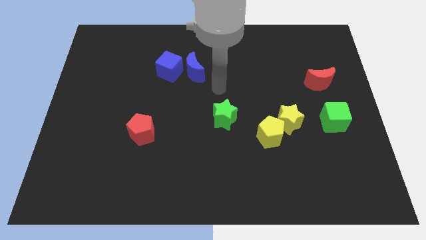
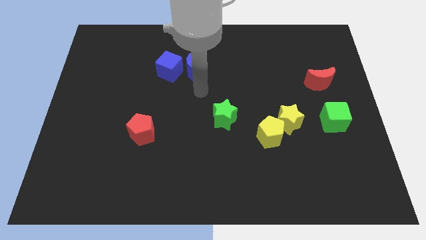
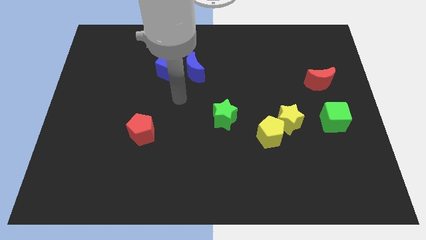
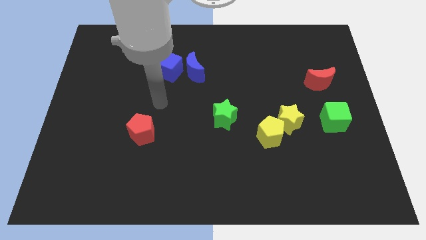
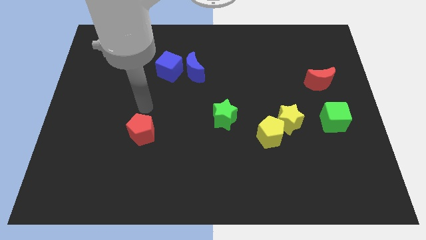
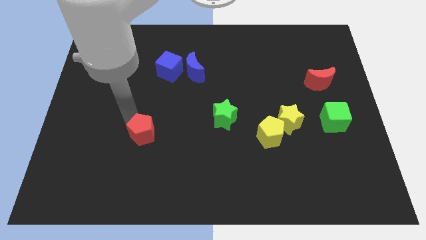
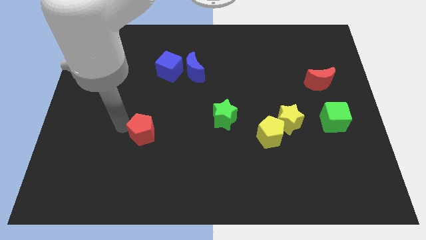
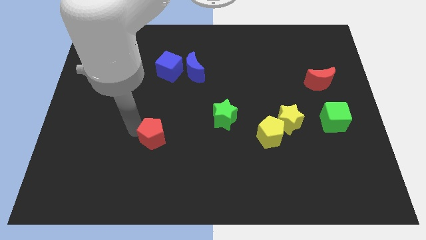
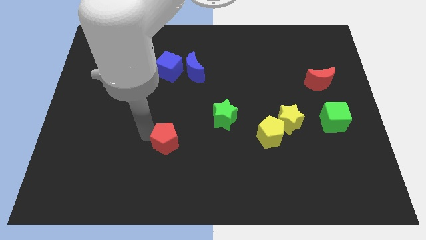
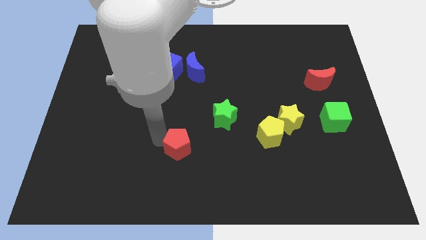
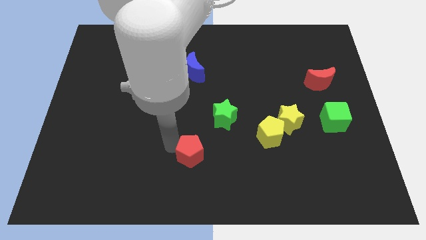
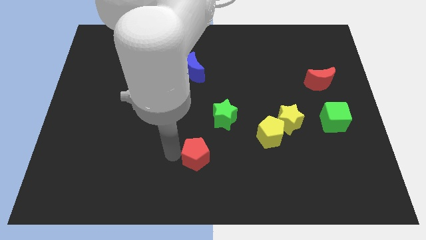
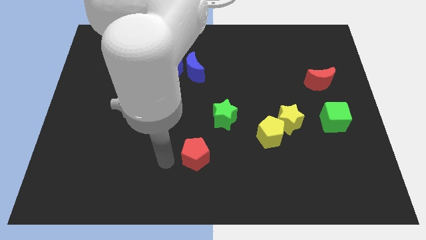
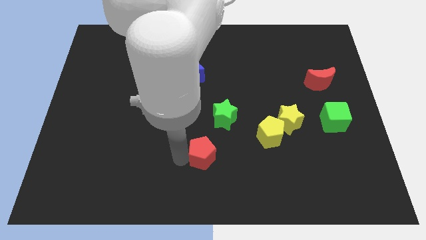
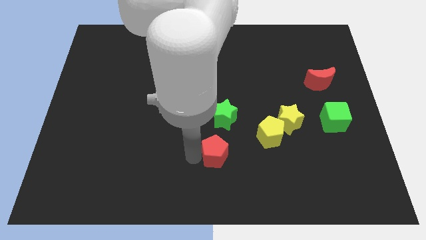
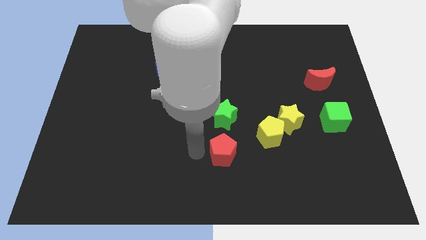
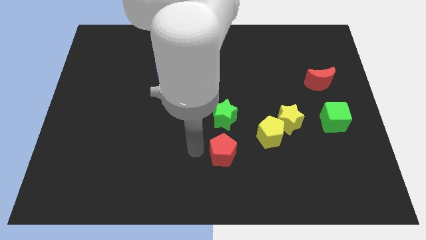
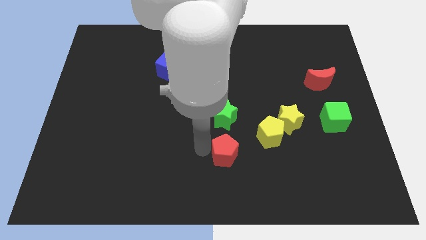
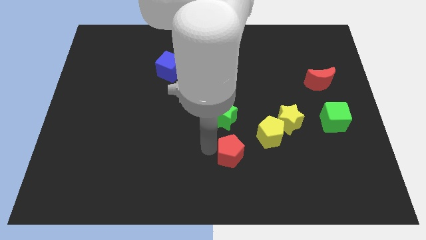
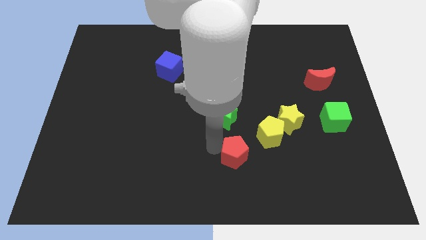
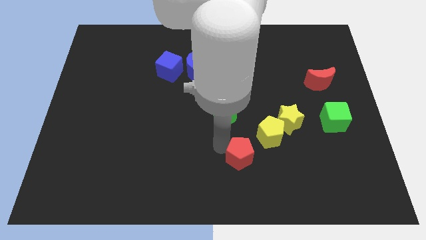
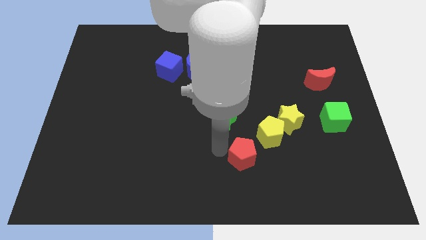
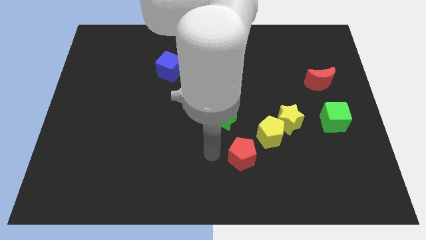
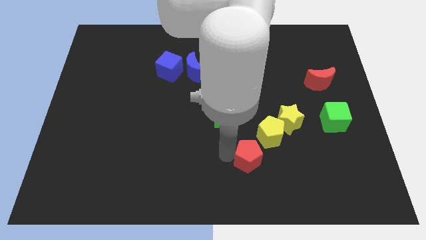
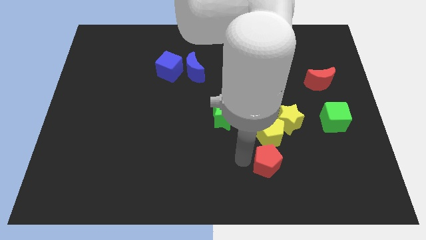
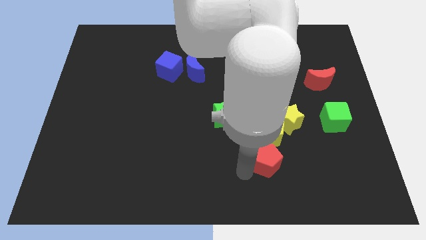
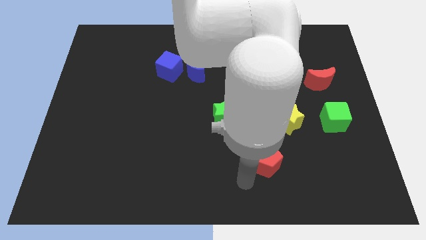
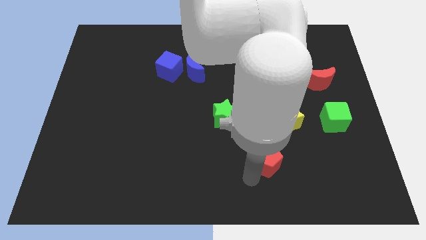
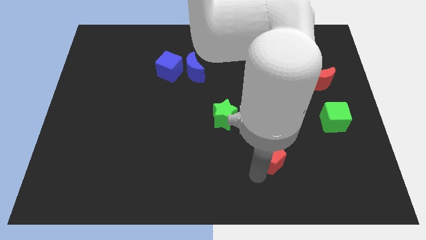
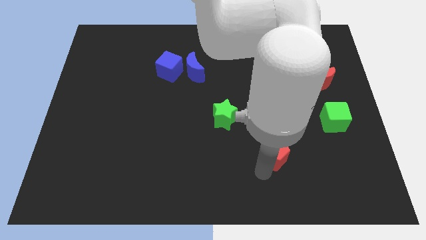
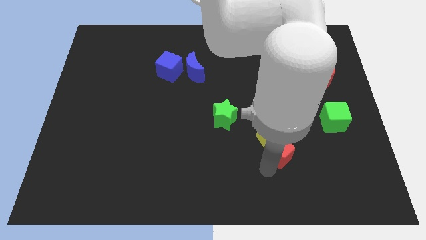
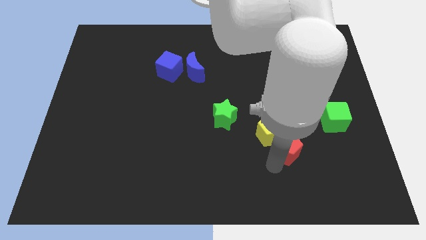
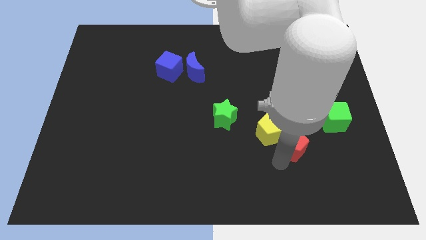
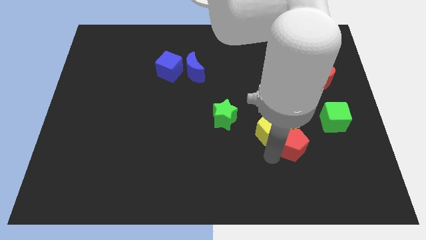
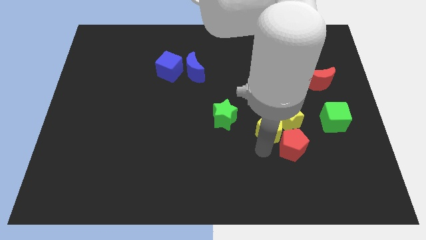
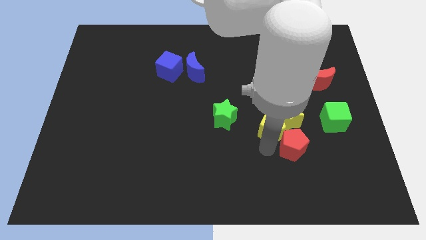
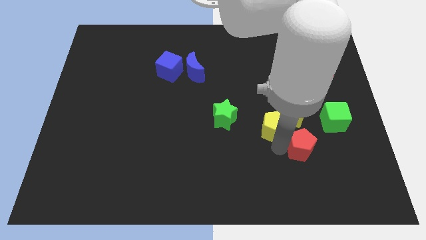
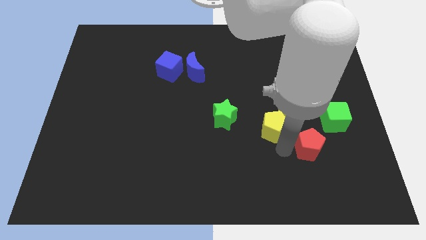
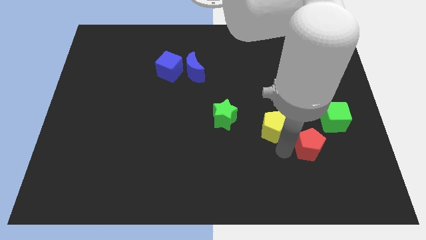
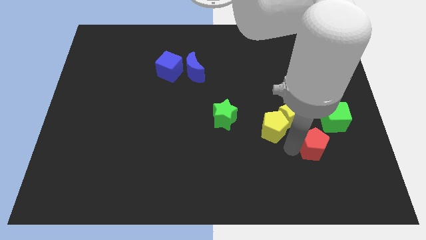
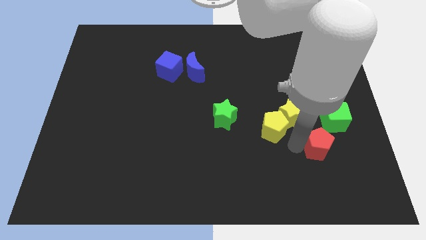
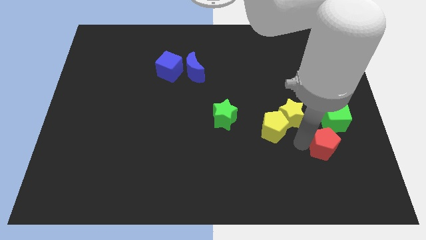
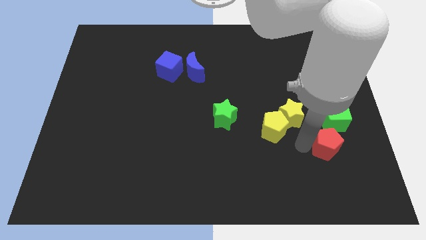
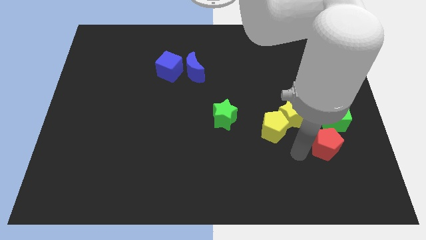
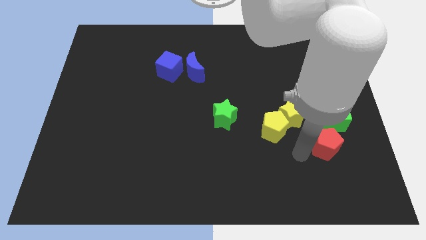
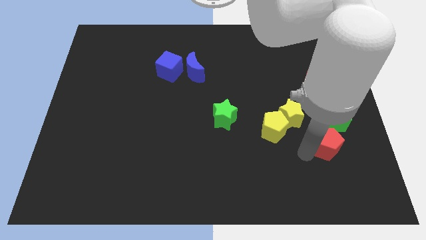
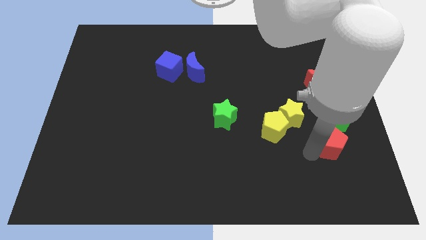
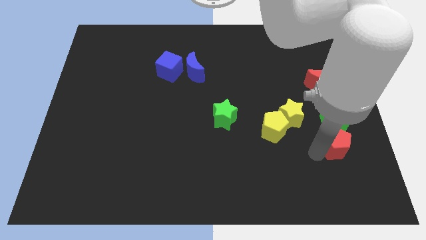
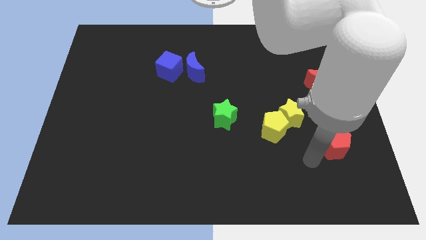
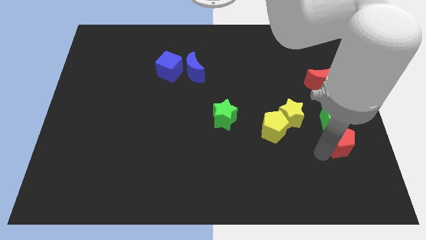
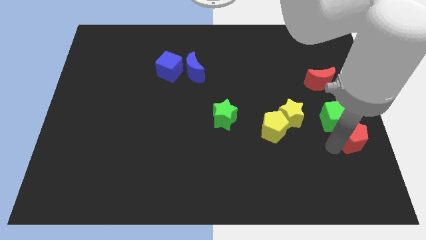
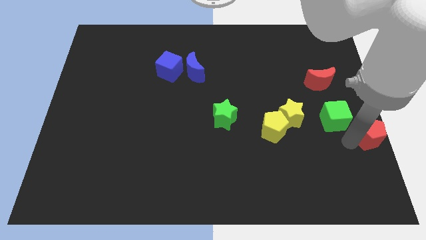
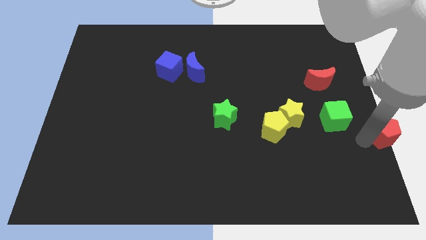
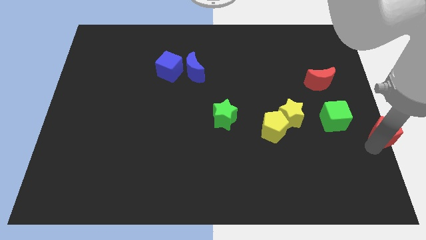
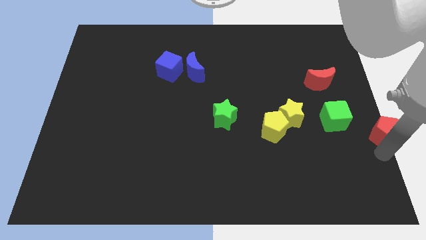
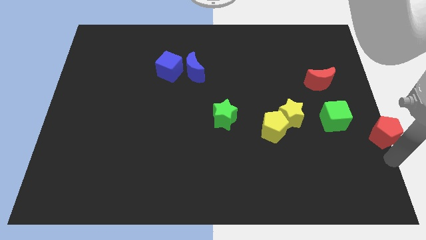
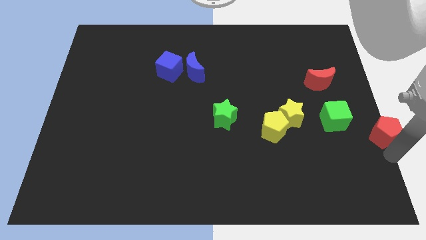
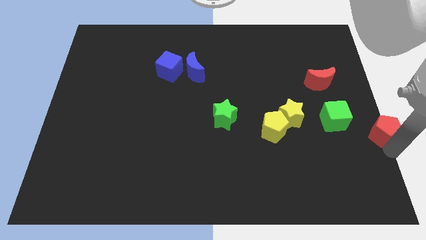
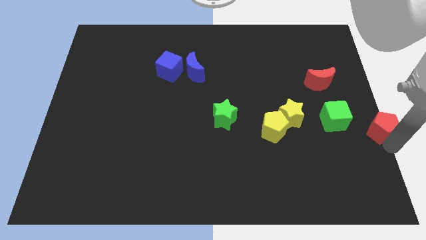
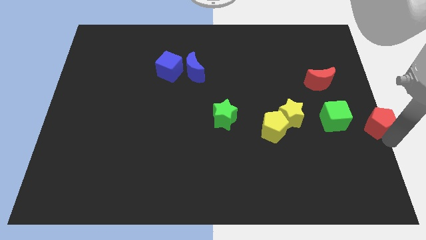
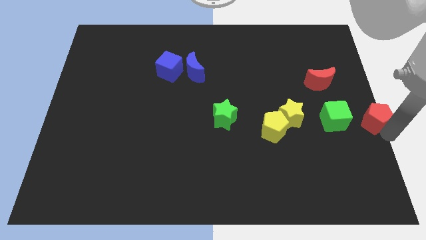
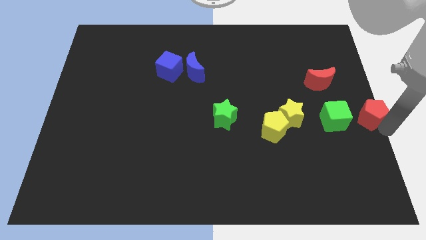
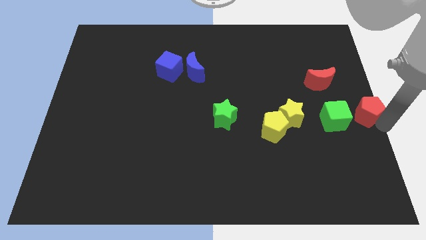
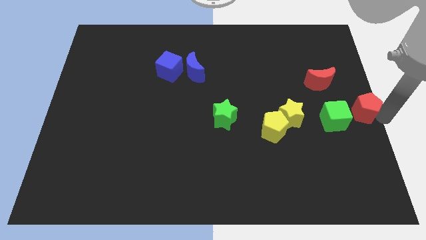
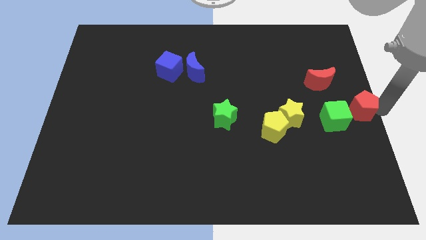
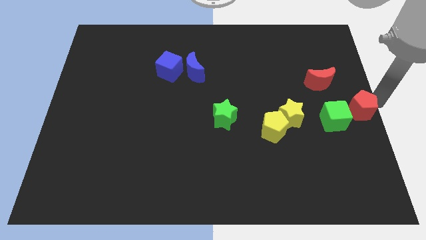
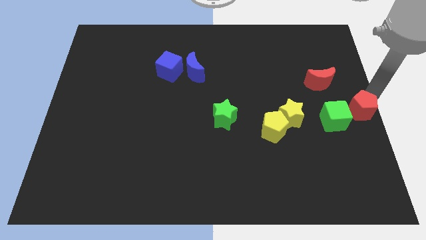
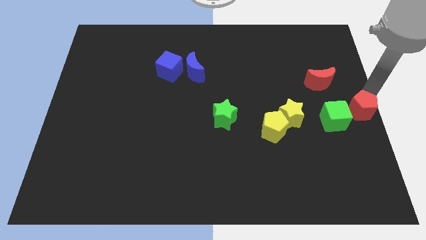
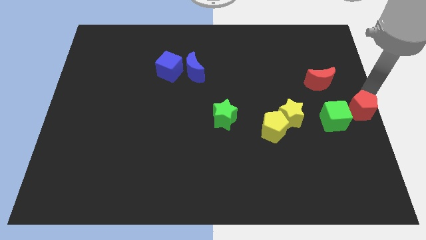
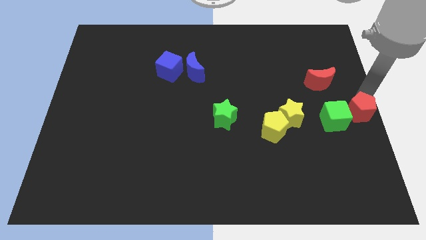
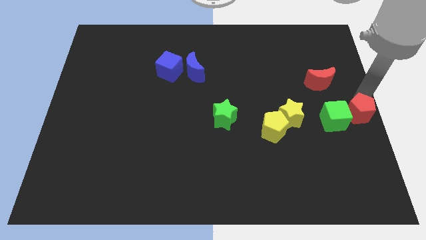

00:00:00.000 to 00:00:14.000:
put the red pentagon just right of the yellow star

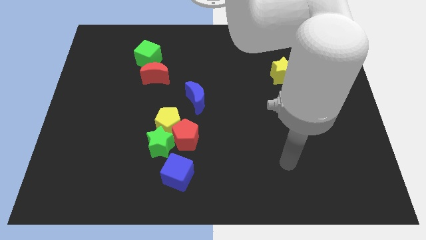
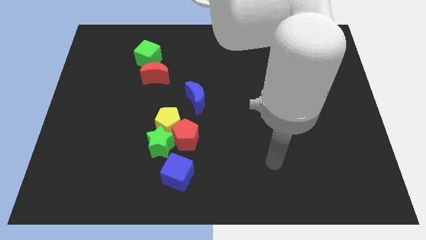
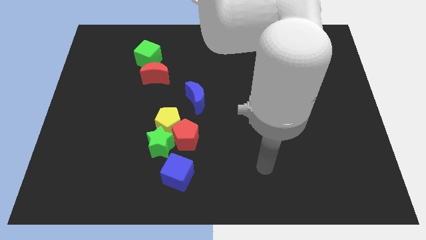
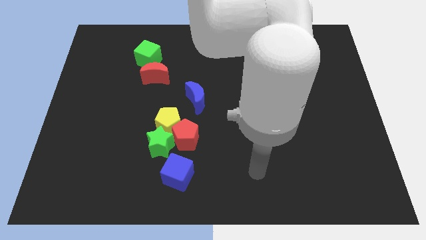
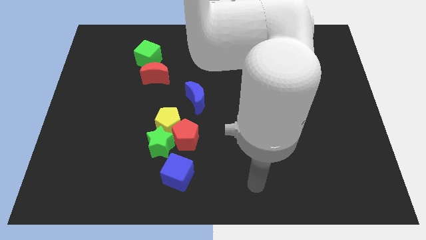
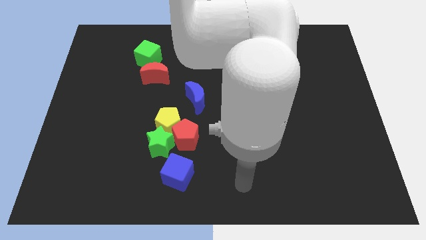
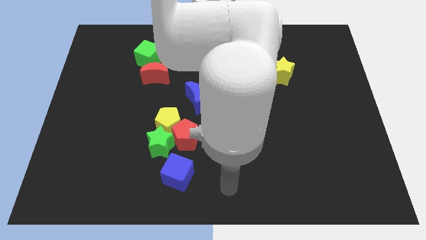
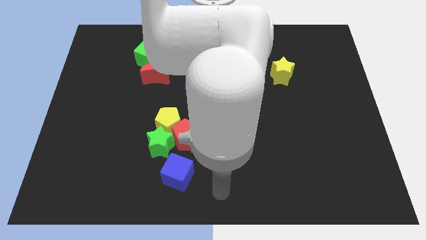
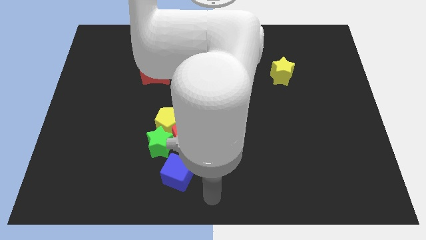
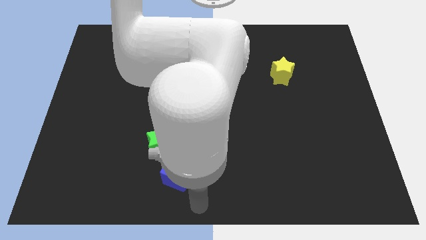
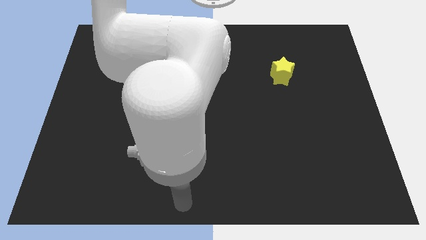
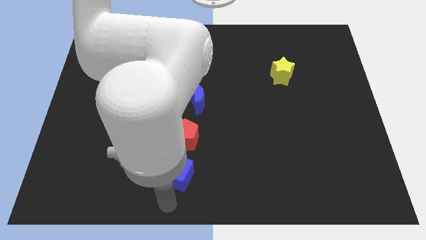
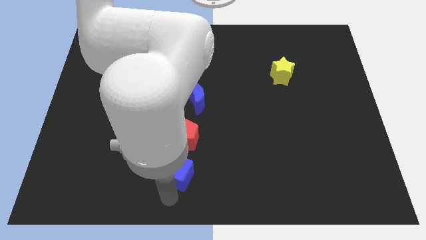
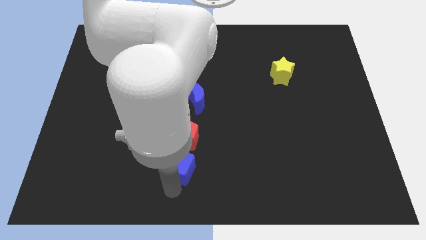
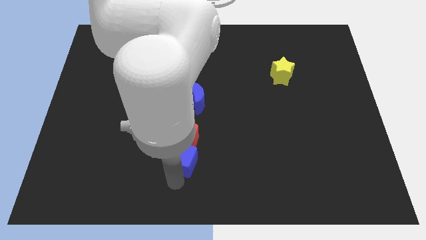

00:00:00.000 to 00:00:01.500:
slide the blue cube to the bottom right of the yellow pentagon
